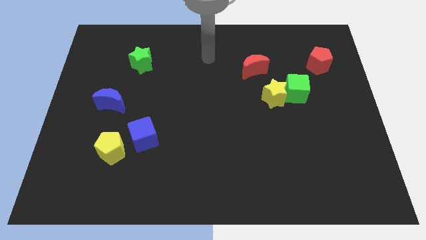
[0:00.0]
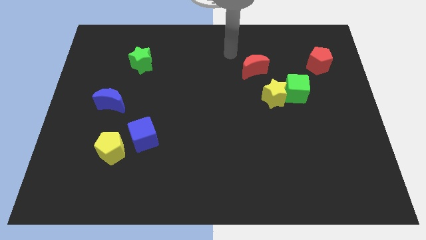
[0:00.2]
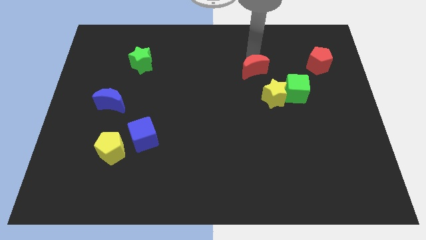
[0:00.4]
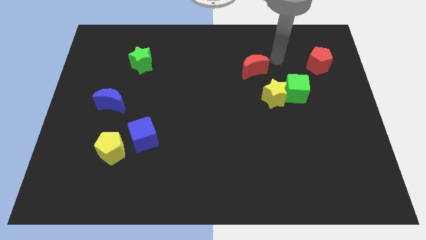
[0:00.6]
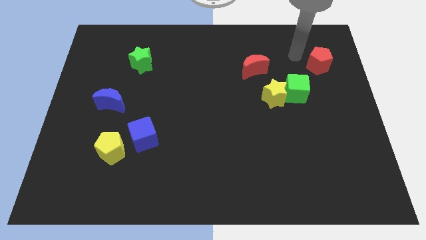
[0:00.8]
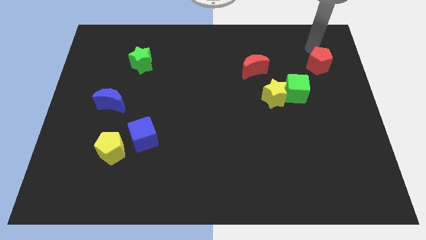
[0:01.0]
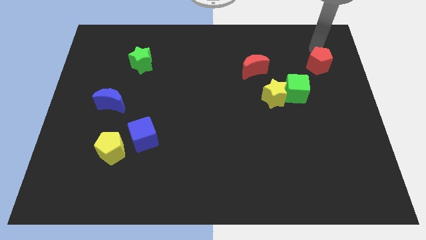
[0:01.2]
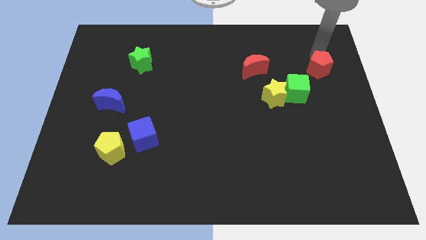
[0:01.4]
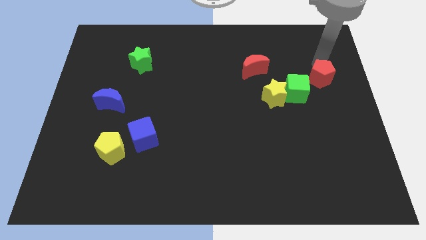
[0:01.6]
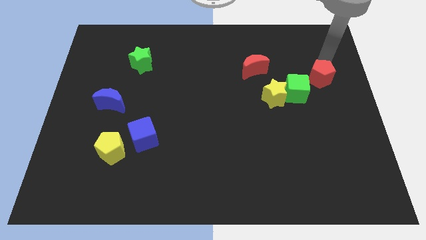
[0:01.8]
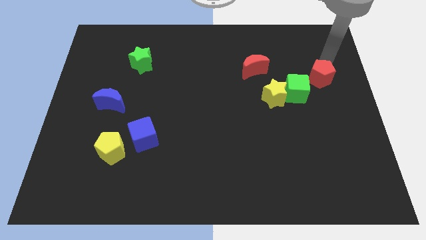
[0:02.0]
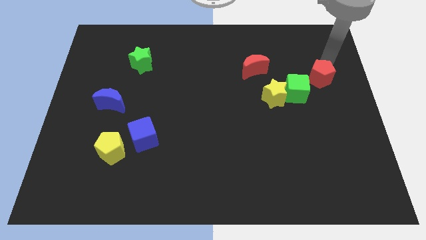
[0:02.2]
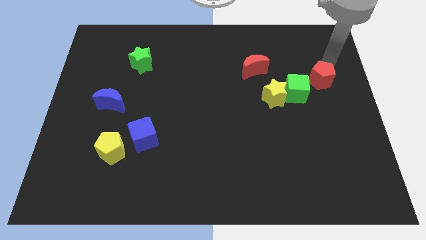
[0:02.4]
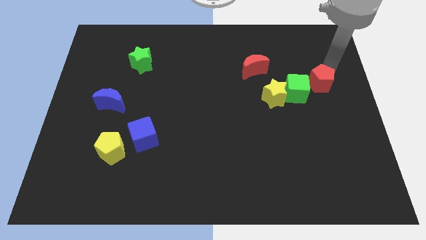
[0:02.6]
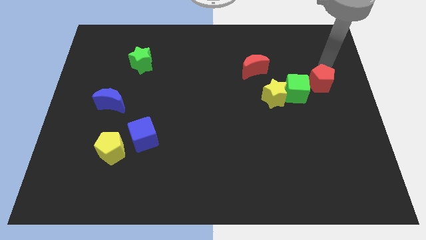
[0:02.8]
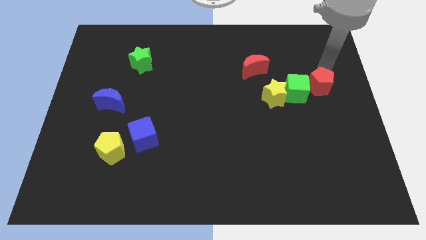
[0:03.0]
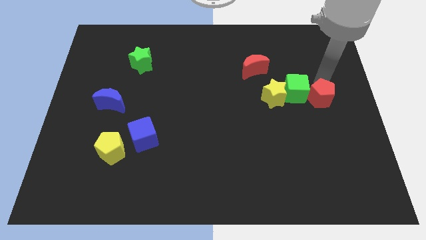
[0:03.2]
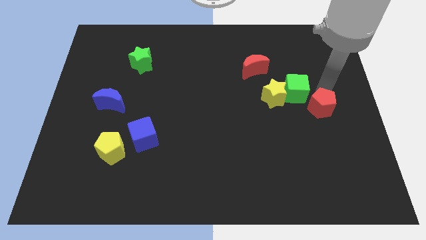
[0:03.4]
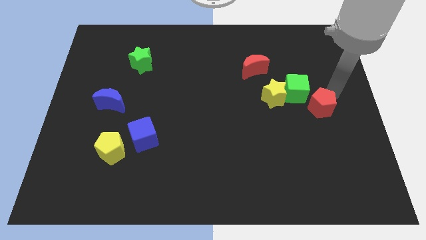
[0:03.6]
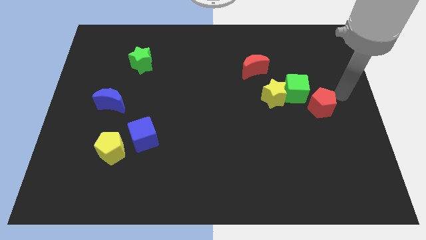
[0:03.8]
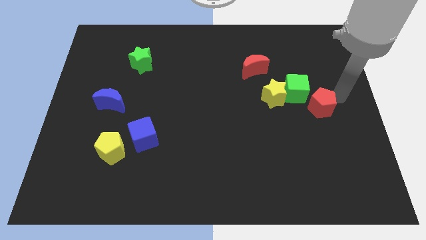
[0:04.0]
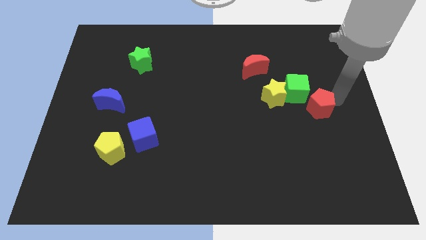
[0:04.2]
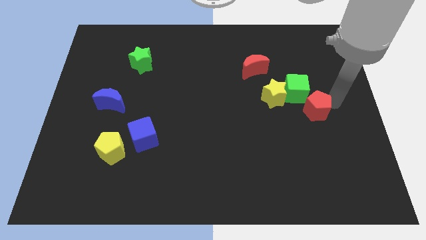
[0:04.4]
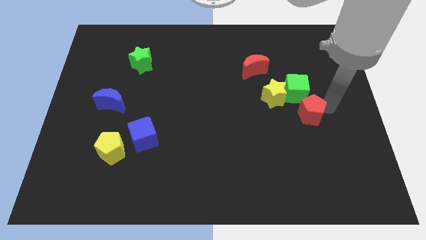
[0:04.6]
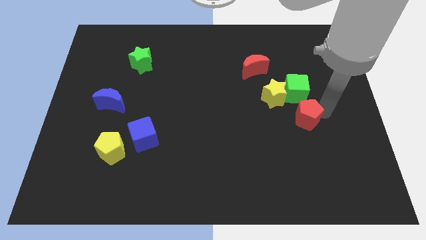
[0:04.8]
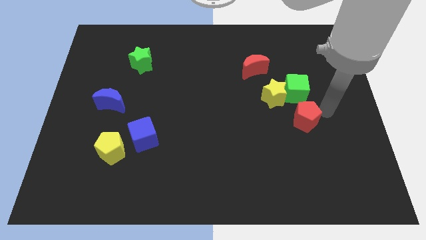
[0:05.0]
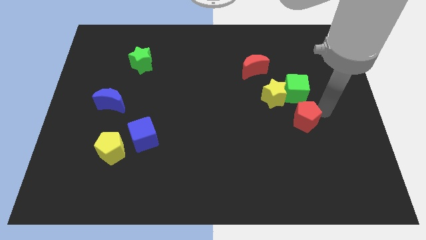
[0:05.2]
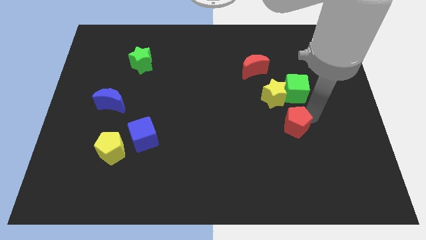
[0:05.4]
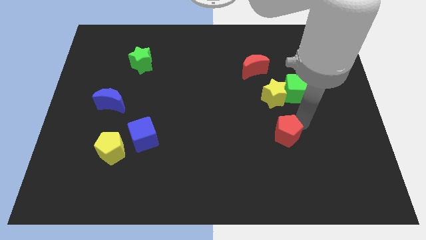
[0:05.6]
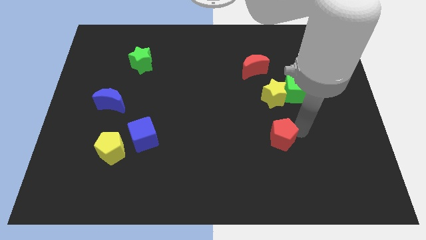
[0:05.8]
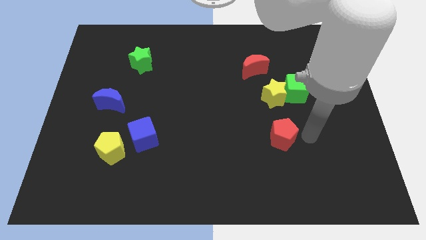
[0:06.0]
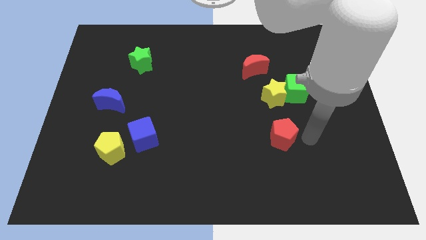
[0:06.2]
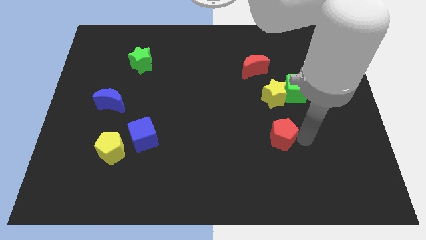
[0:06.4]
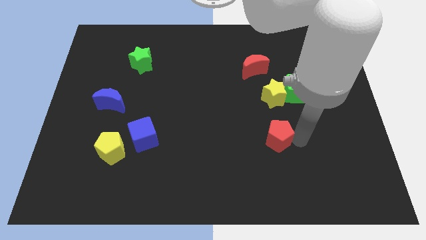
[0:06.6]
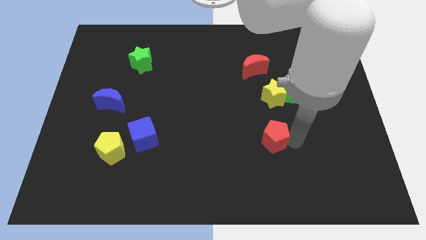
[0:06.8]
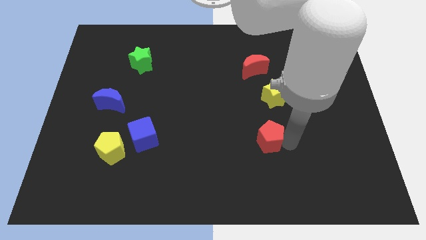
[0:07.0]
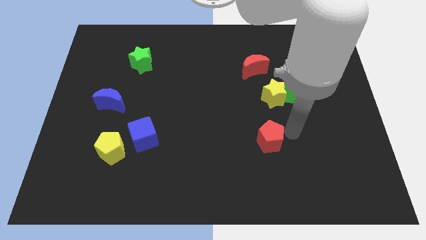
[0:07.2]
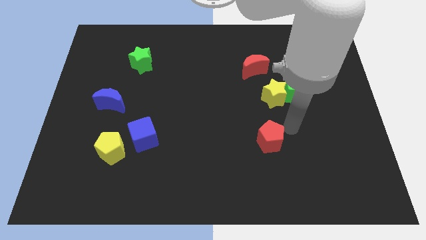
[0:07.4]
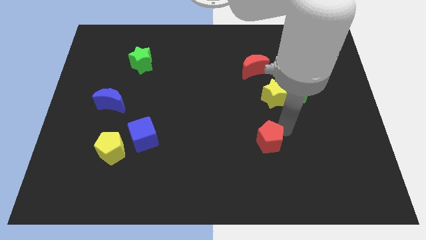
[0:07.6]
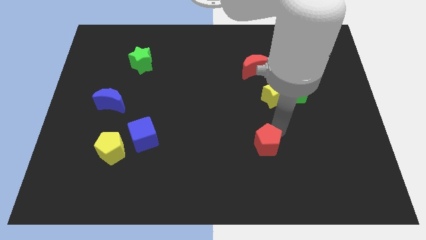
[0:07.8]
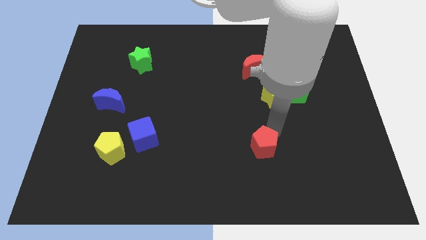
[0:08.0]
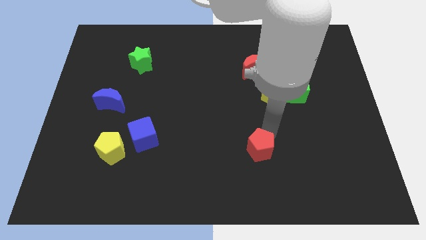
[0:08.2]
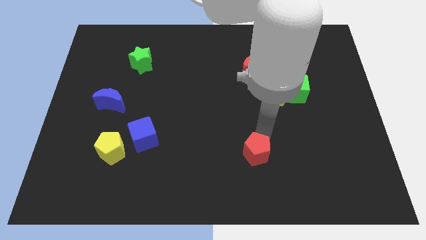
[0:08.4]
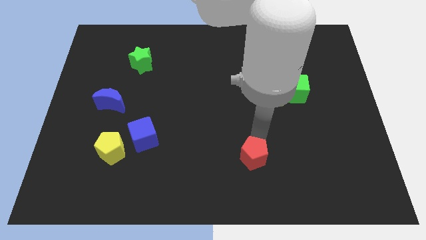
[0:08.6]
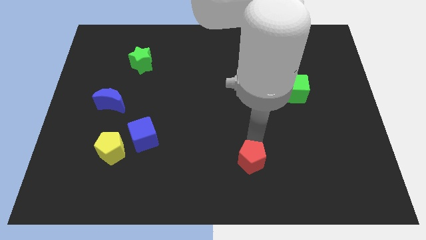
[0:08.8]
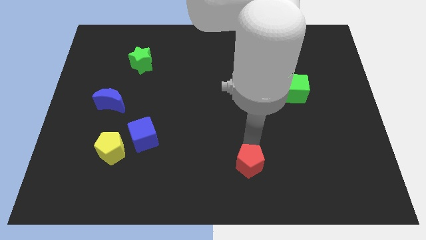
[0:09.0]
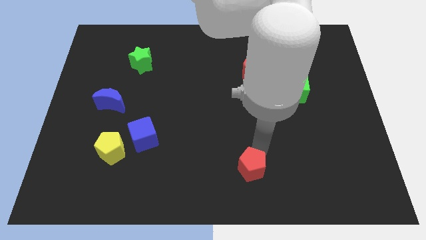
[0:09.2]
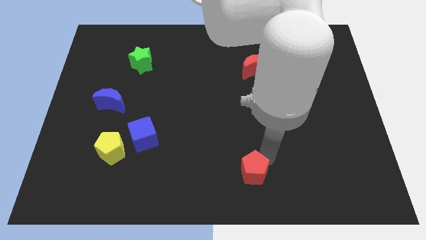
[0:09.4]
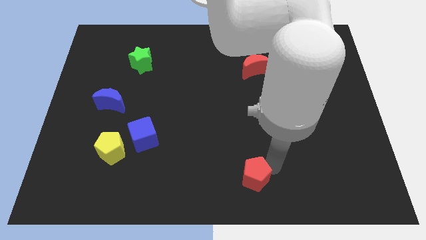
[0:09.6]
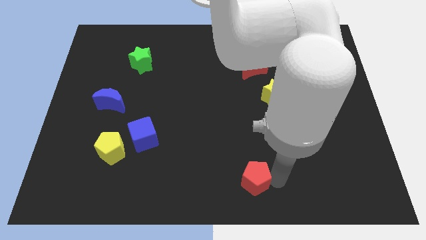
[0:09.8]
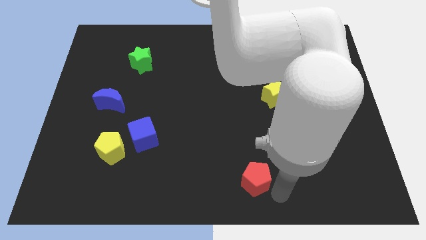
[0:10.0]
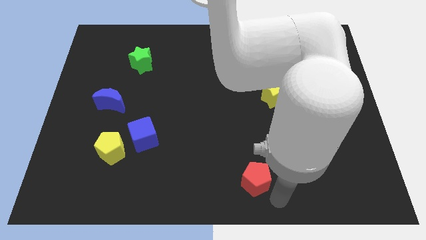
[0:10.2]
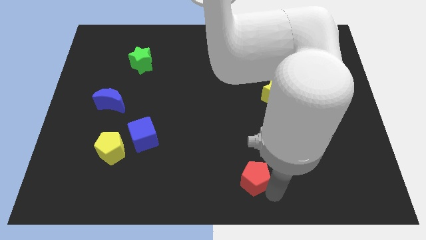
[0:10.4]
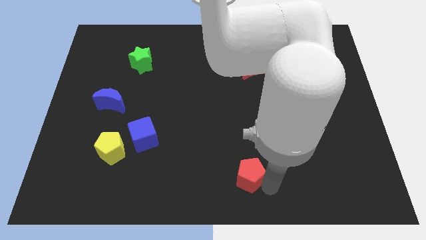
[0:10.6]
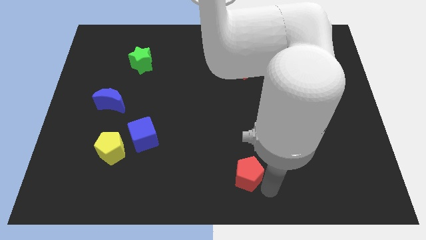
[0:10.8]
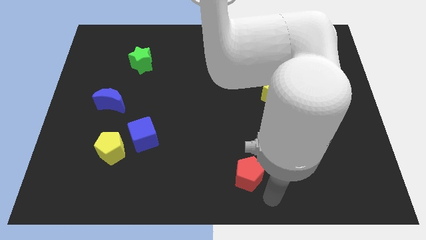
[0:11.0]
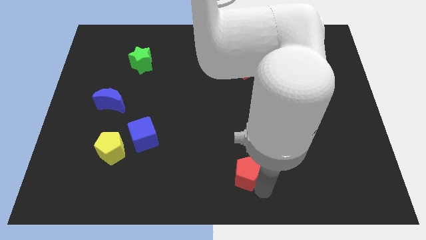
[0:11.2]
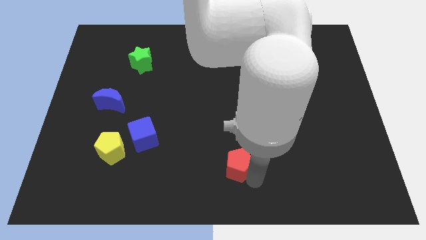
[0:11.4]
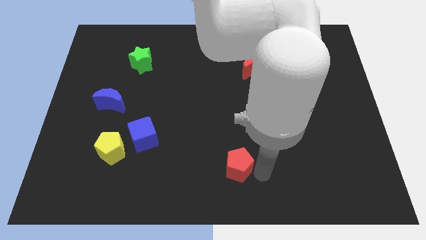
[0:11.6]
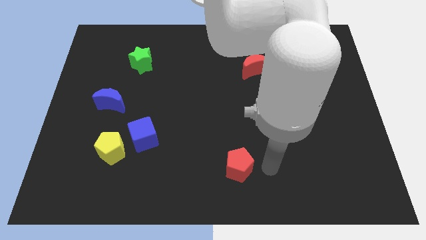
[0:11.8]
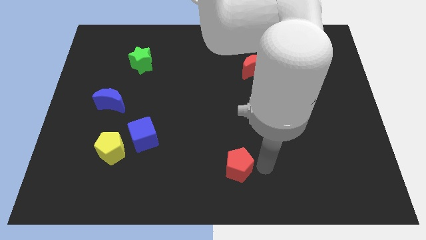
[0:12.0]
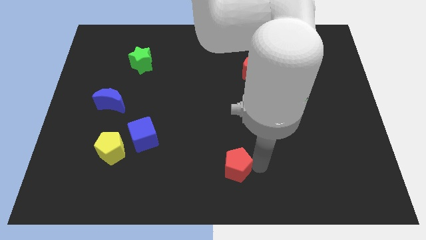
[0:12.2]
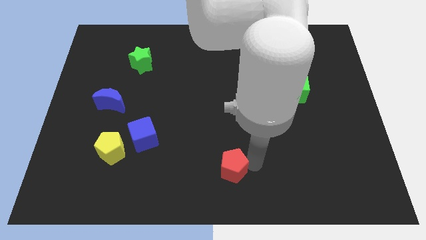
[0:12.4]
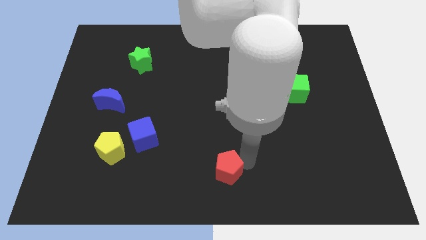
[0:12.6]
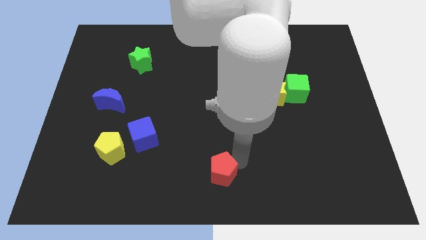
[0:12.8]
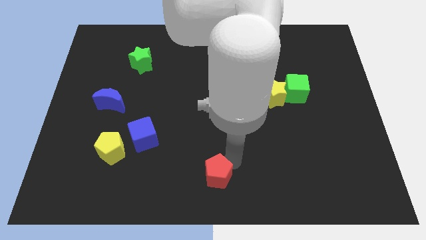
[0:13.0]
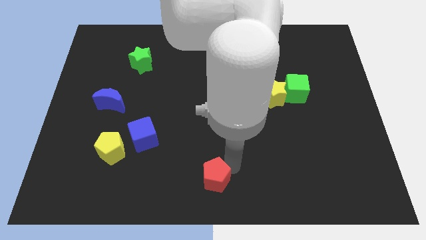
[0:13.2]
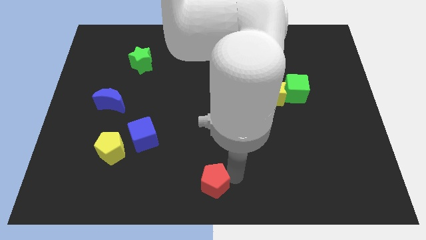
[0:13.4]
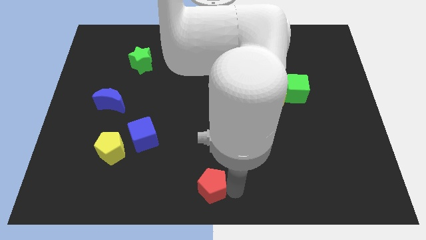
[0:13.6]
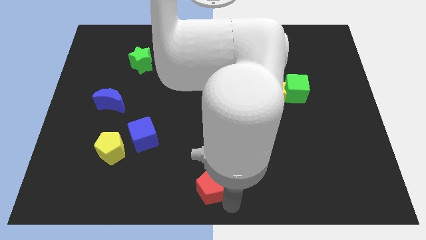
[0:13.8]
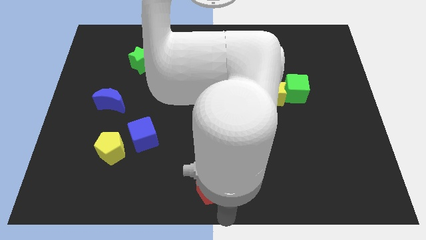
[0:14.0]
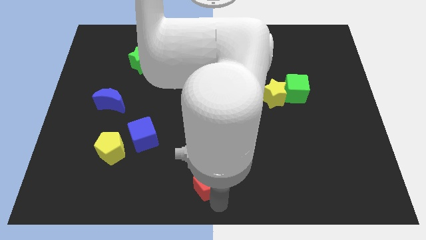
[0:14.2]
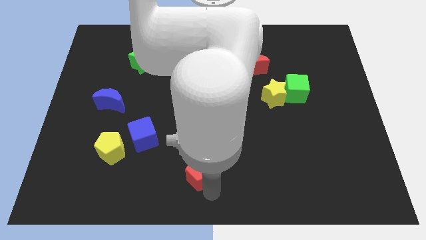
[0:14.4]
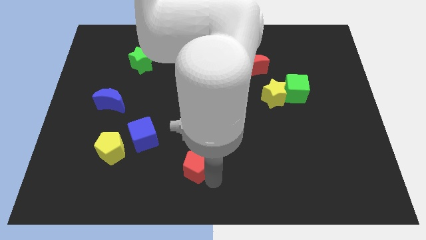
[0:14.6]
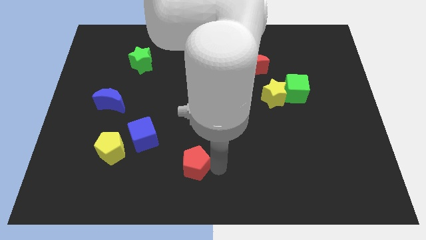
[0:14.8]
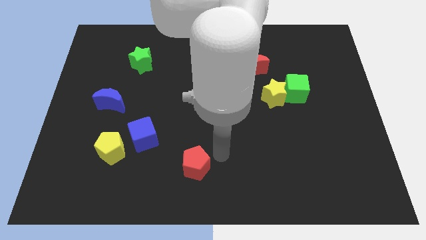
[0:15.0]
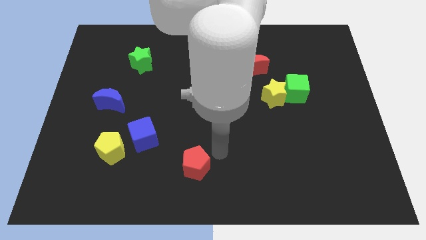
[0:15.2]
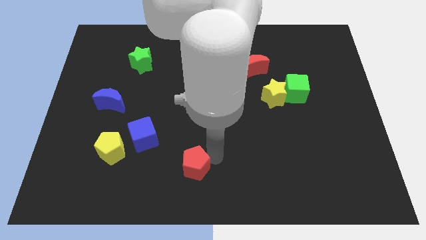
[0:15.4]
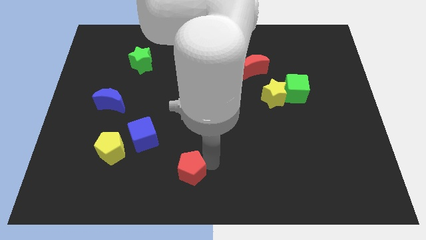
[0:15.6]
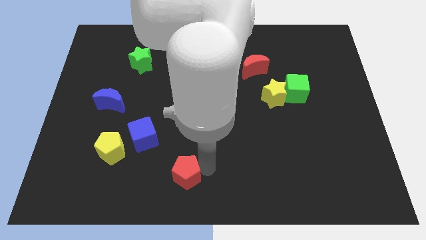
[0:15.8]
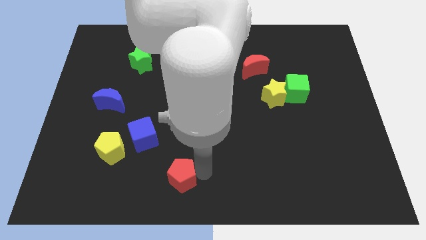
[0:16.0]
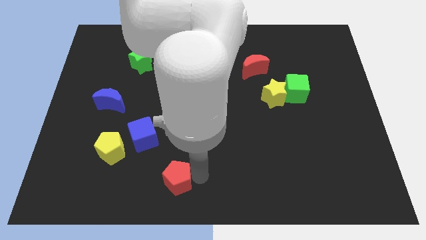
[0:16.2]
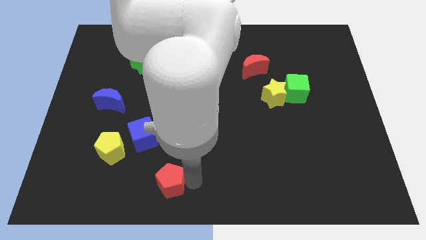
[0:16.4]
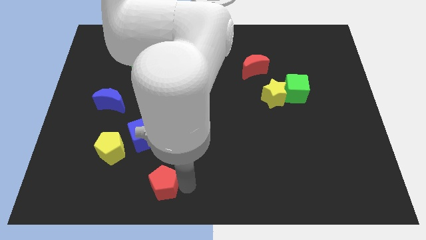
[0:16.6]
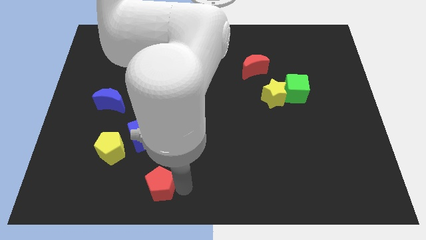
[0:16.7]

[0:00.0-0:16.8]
slide the red pentagon to the bottom side of the blue cube

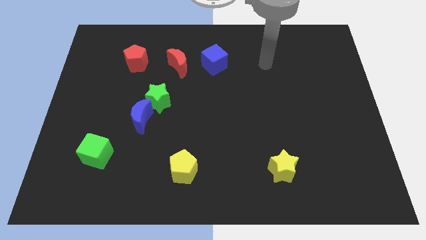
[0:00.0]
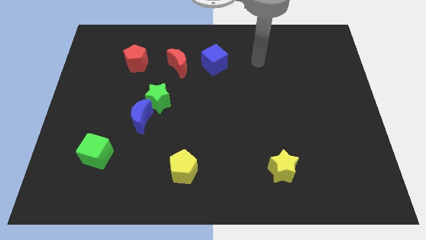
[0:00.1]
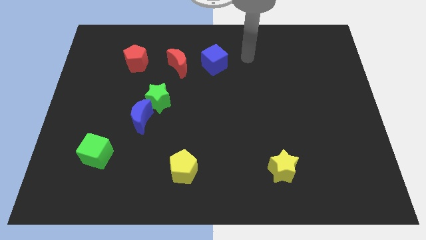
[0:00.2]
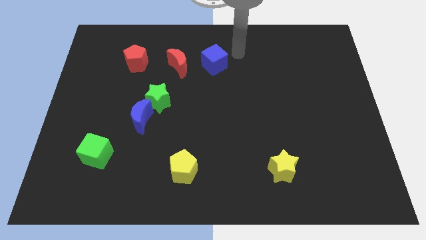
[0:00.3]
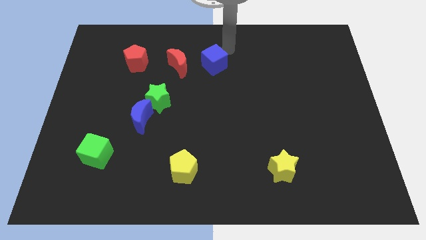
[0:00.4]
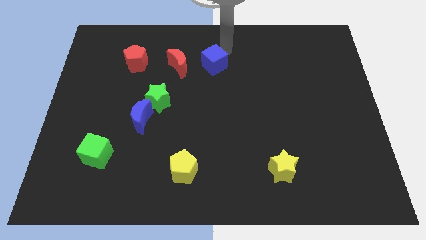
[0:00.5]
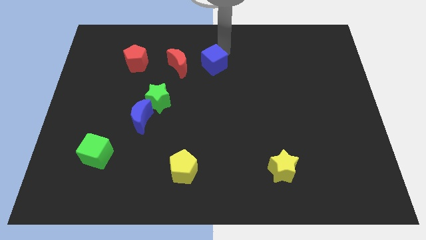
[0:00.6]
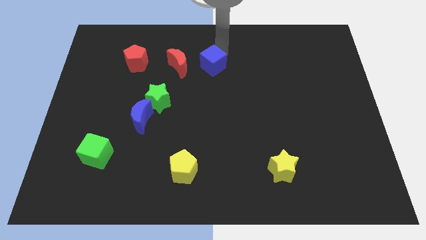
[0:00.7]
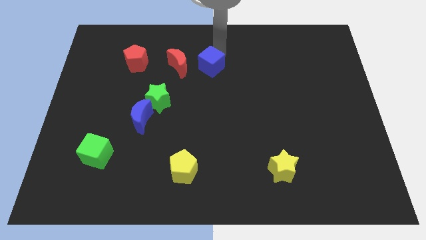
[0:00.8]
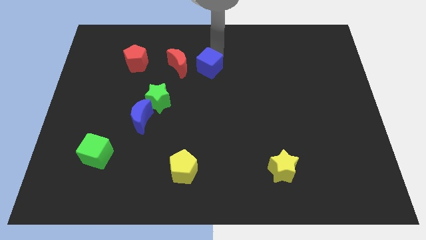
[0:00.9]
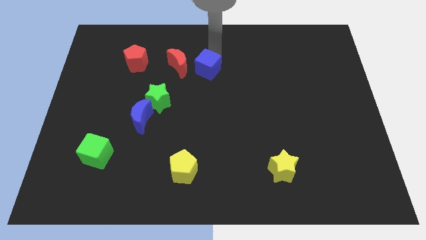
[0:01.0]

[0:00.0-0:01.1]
move the blue cube to the bottom right side of the red moon
